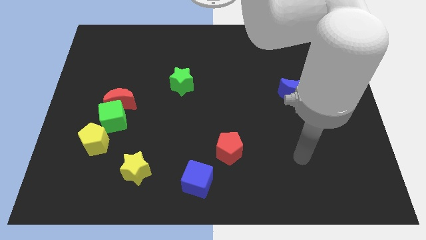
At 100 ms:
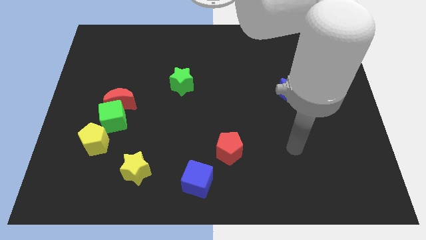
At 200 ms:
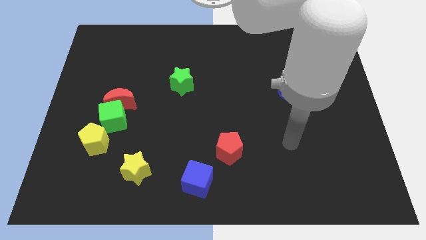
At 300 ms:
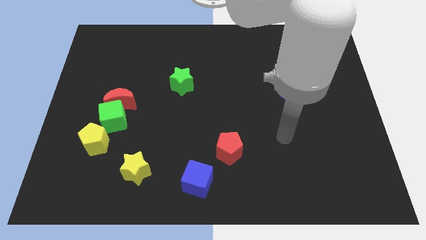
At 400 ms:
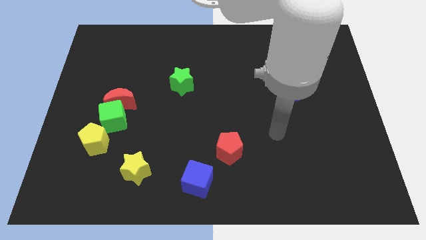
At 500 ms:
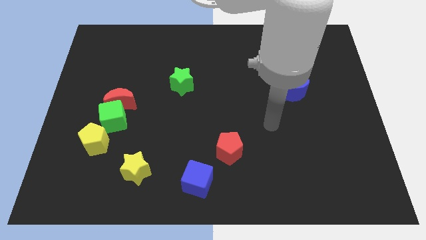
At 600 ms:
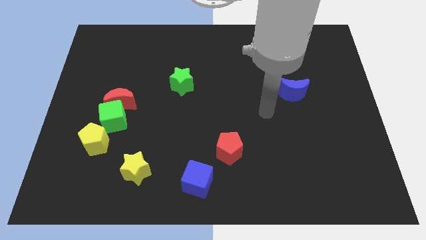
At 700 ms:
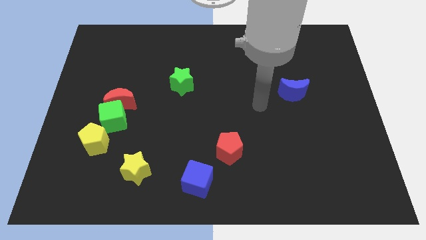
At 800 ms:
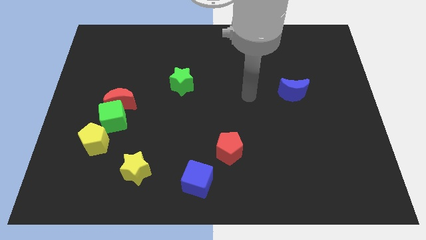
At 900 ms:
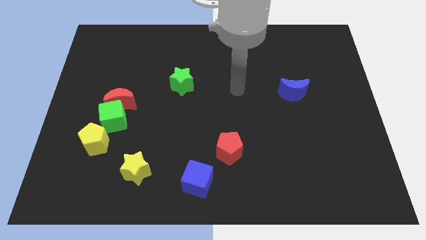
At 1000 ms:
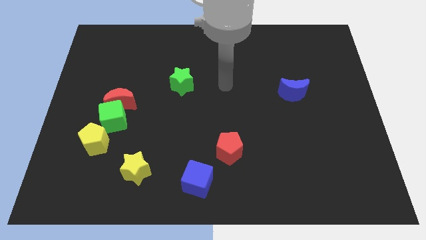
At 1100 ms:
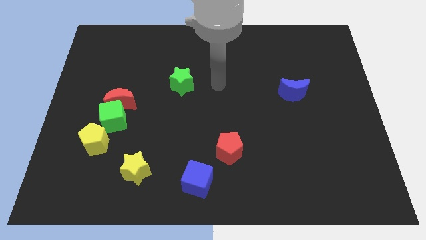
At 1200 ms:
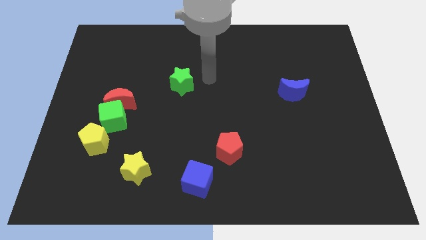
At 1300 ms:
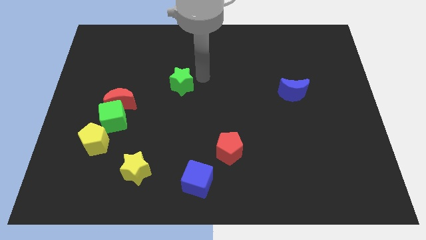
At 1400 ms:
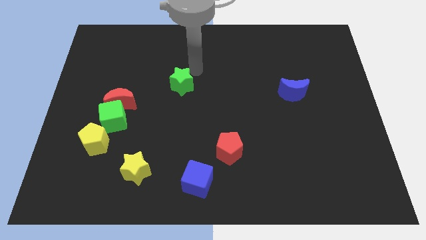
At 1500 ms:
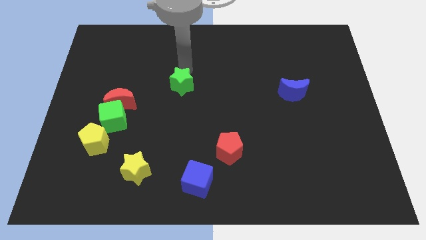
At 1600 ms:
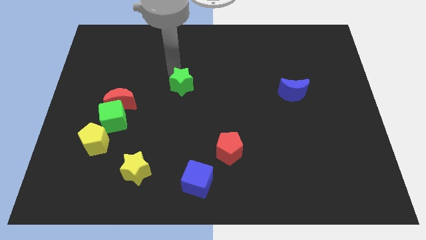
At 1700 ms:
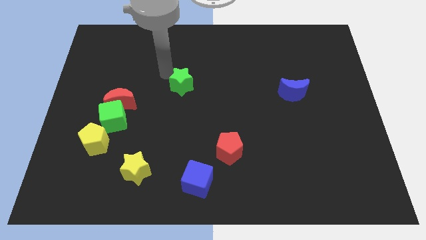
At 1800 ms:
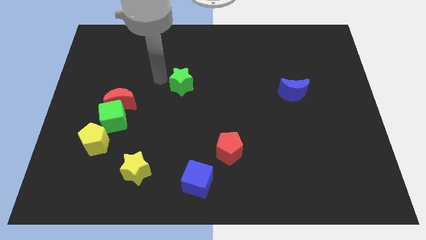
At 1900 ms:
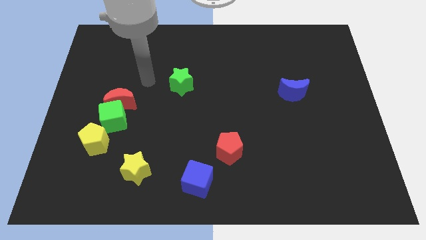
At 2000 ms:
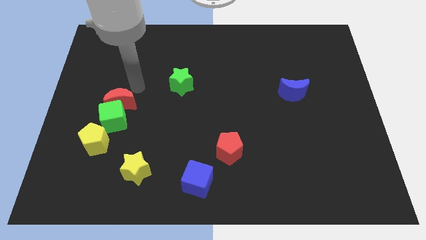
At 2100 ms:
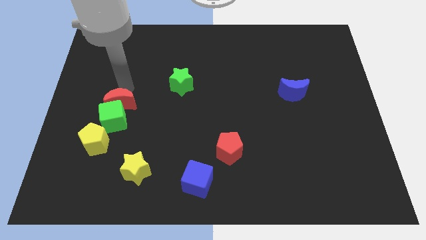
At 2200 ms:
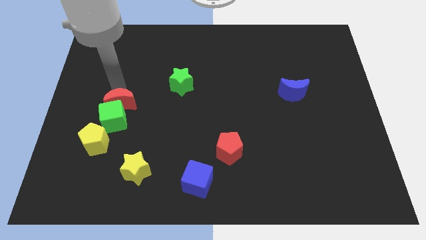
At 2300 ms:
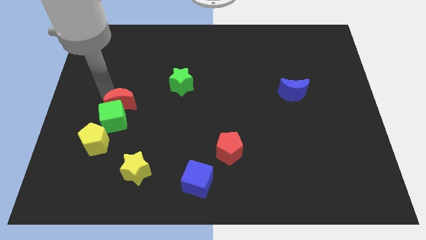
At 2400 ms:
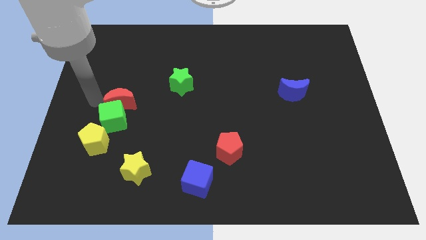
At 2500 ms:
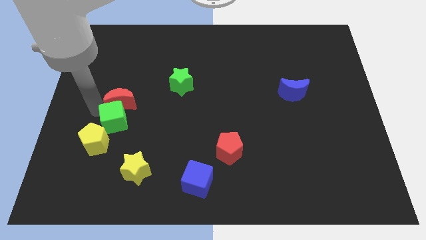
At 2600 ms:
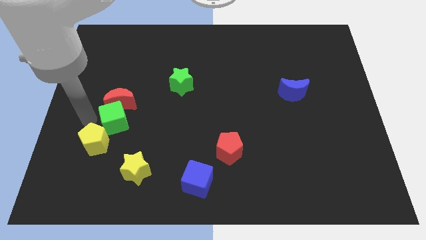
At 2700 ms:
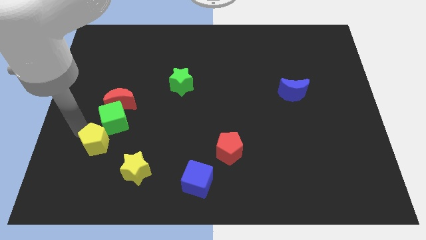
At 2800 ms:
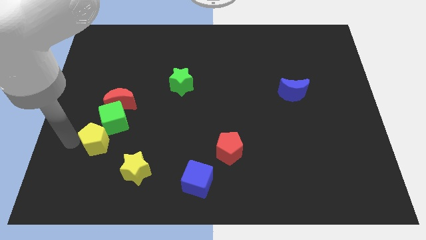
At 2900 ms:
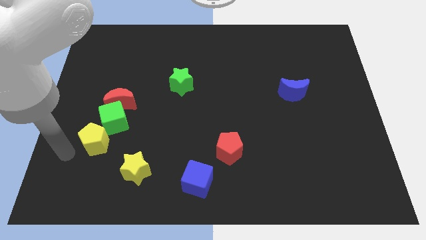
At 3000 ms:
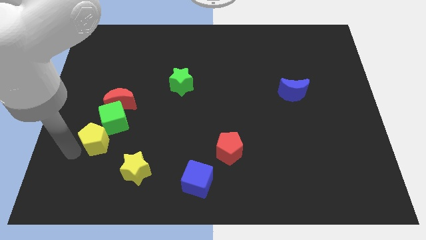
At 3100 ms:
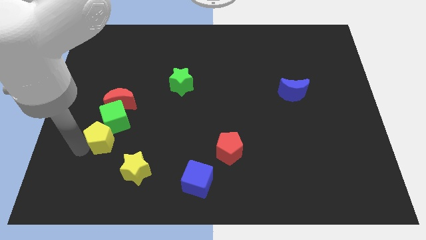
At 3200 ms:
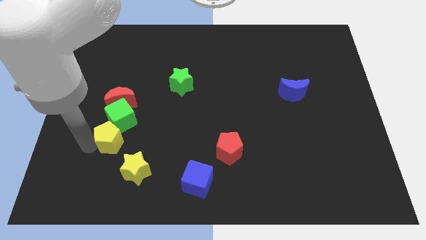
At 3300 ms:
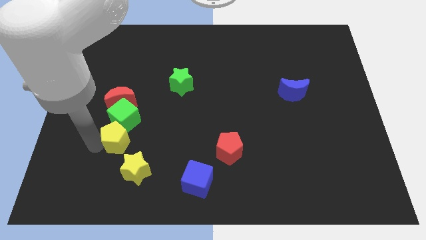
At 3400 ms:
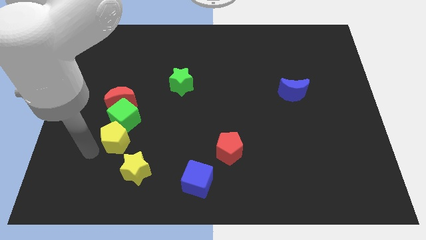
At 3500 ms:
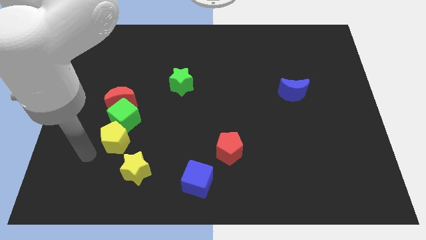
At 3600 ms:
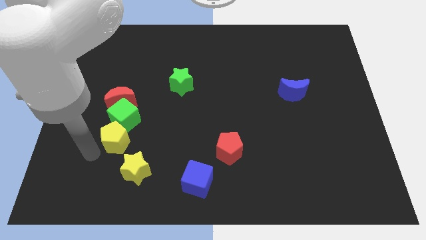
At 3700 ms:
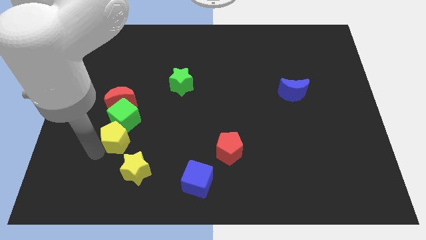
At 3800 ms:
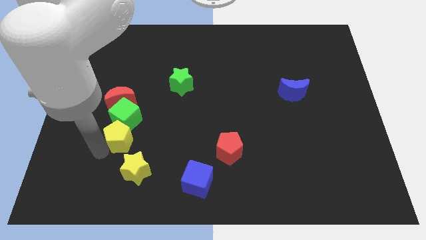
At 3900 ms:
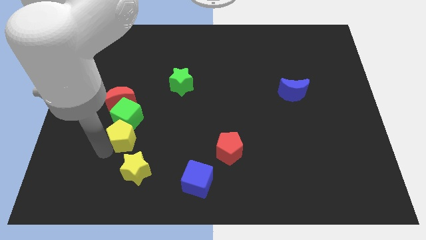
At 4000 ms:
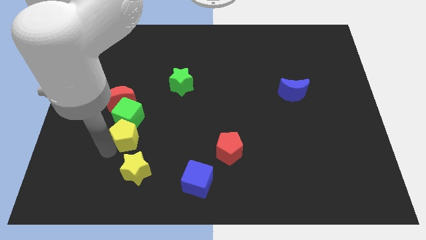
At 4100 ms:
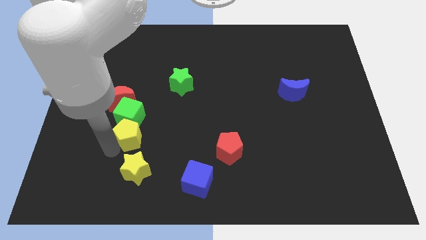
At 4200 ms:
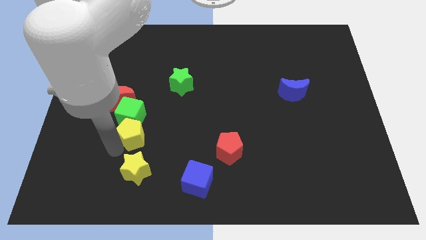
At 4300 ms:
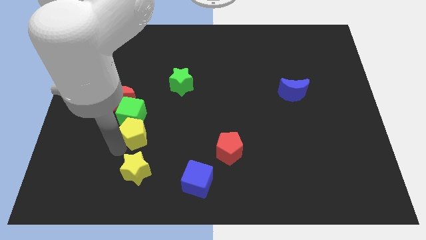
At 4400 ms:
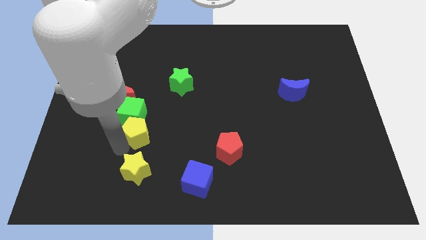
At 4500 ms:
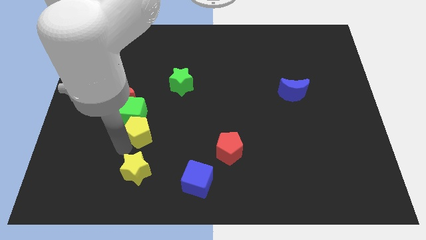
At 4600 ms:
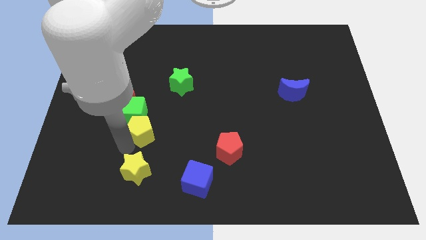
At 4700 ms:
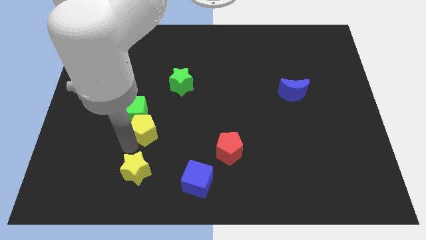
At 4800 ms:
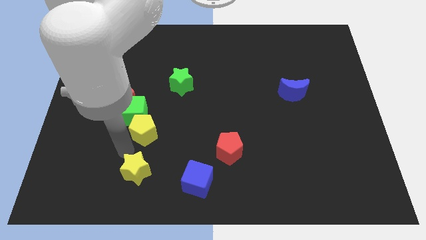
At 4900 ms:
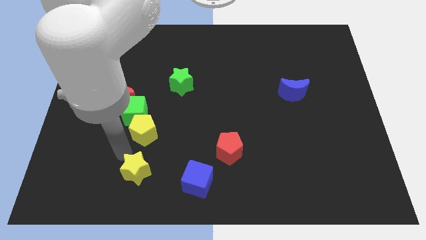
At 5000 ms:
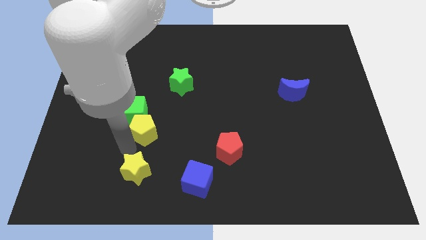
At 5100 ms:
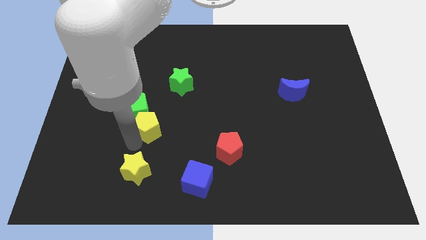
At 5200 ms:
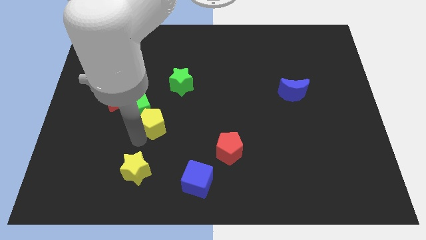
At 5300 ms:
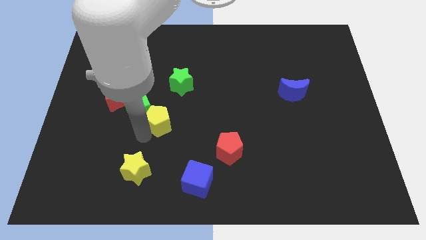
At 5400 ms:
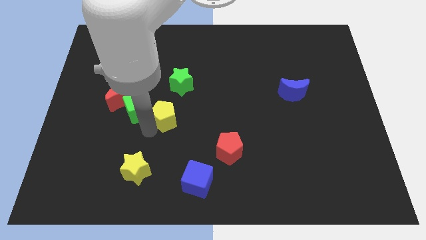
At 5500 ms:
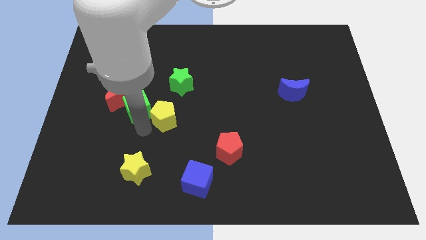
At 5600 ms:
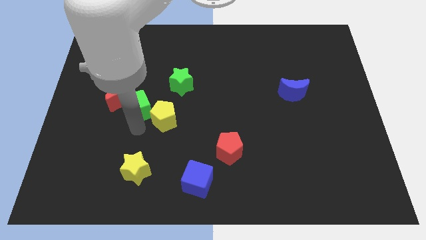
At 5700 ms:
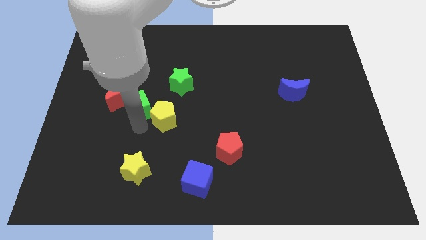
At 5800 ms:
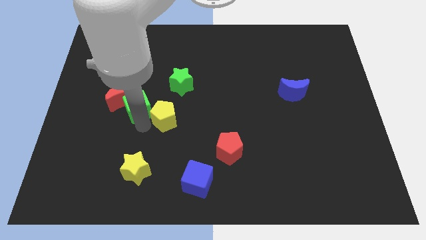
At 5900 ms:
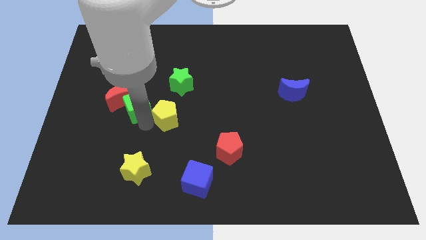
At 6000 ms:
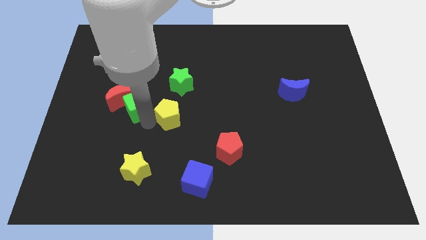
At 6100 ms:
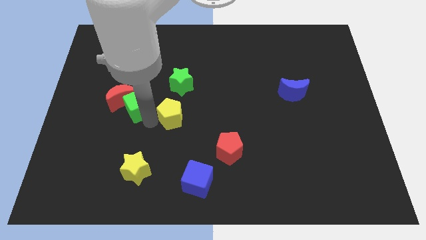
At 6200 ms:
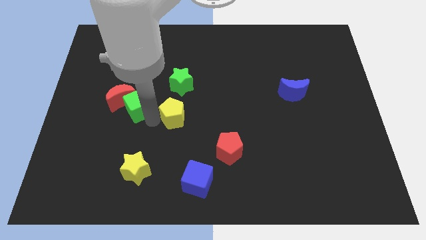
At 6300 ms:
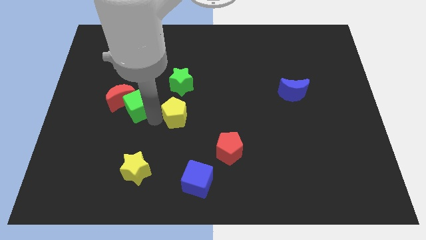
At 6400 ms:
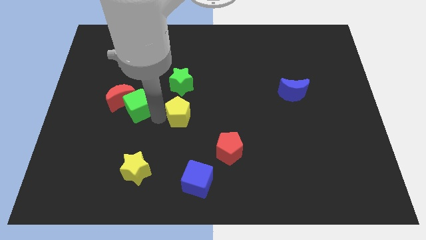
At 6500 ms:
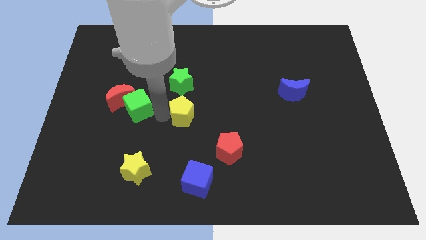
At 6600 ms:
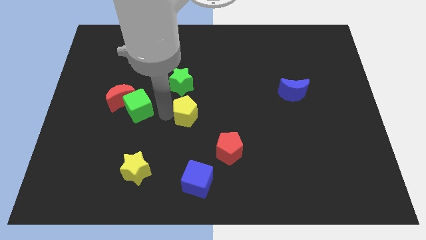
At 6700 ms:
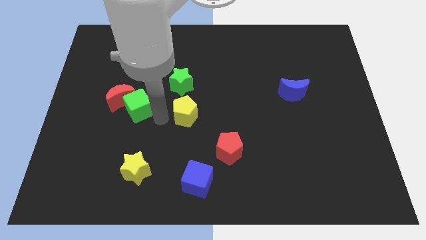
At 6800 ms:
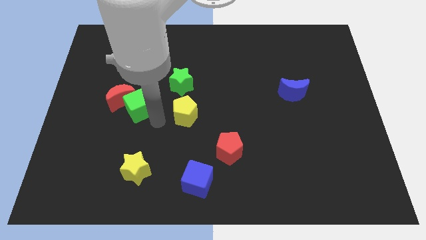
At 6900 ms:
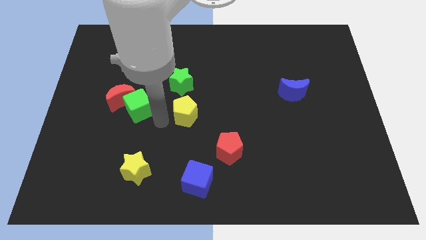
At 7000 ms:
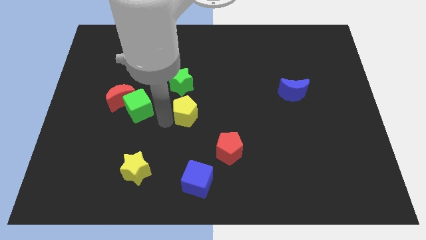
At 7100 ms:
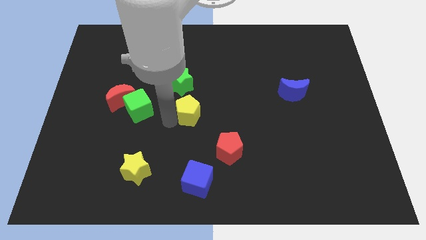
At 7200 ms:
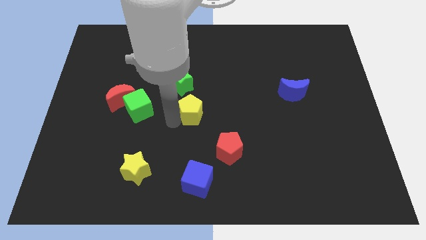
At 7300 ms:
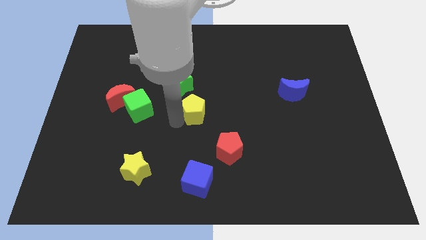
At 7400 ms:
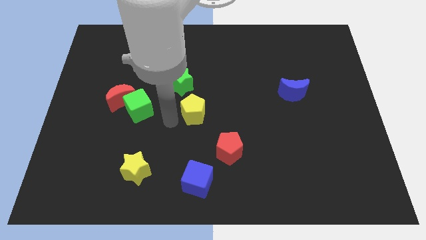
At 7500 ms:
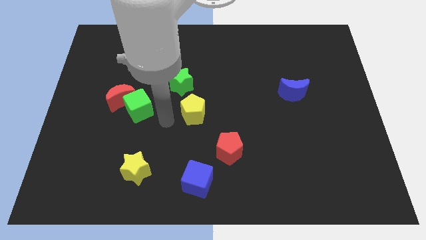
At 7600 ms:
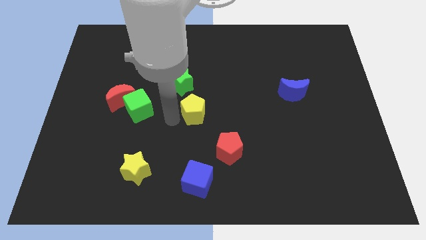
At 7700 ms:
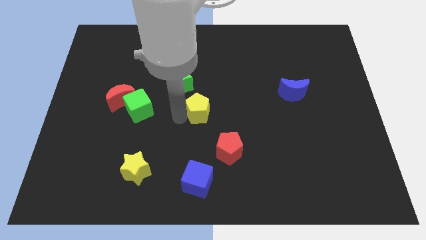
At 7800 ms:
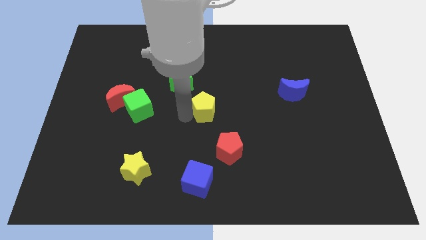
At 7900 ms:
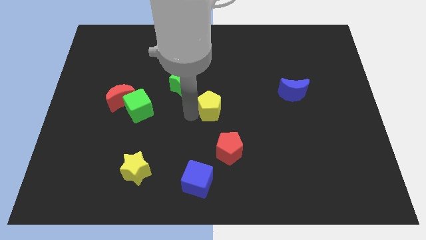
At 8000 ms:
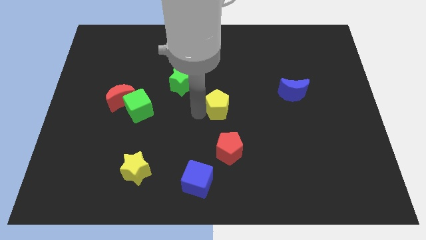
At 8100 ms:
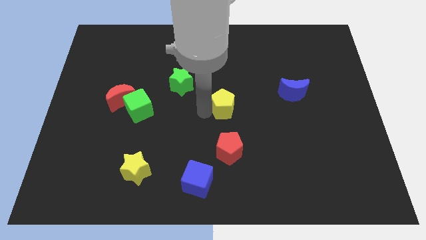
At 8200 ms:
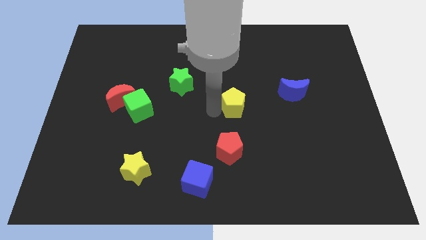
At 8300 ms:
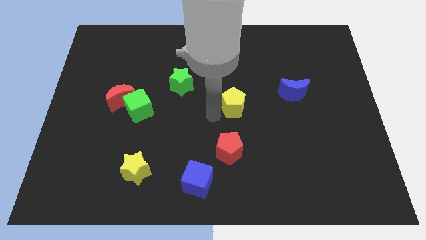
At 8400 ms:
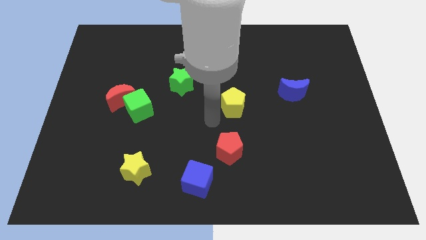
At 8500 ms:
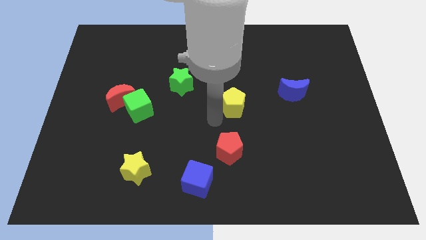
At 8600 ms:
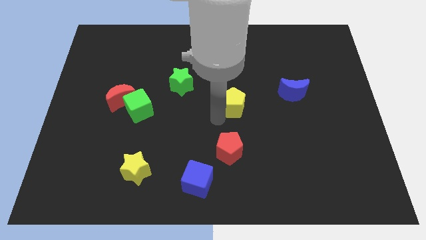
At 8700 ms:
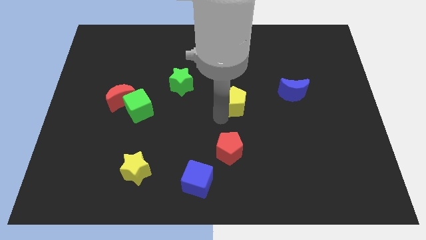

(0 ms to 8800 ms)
move the yellow pentagon to the left of the blue moon
